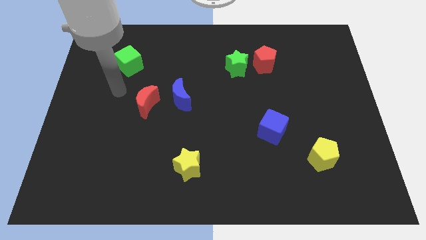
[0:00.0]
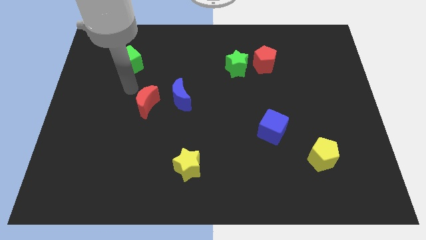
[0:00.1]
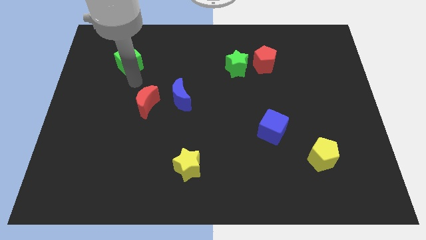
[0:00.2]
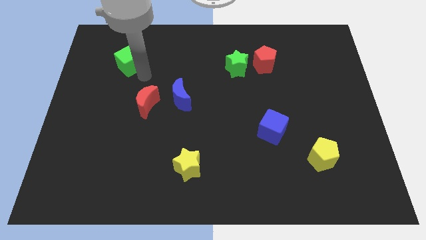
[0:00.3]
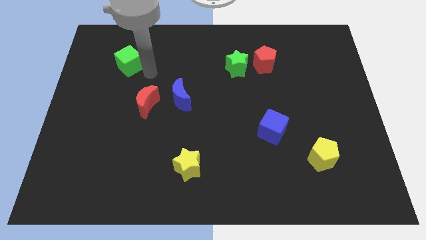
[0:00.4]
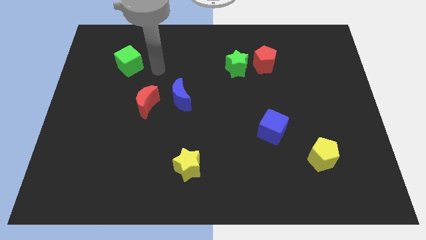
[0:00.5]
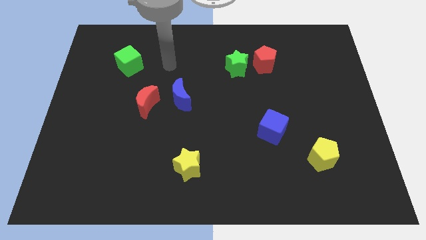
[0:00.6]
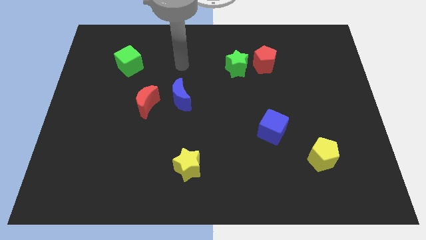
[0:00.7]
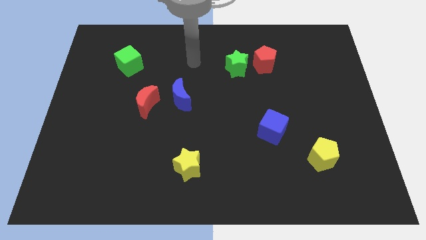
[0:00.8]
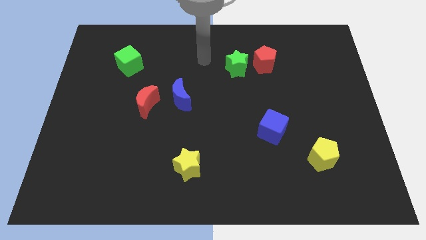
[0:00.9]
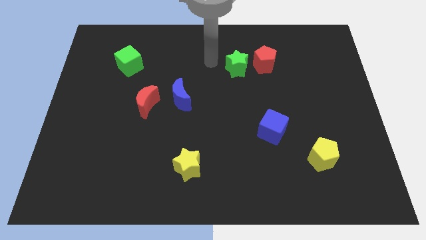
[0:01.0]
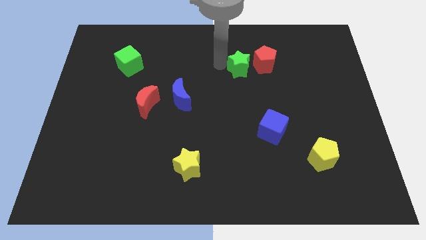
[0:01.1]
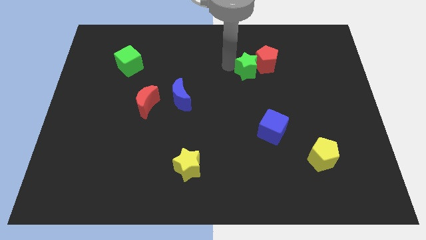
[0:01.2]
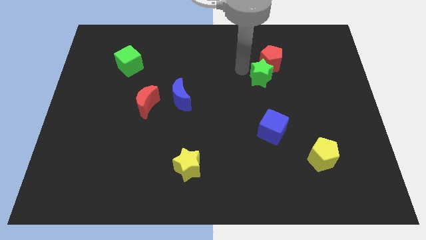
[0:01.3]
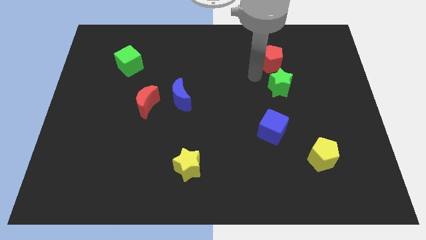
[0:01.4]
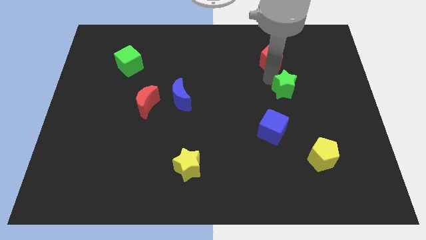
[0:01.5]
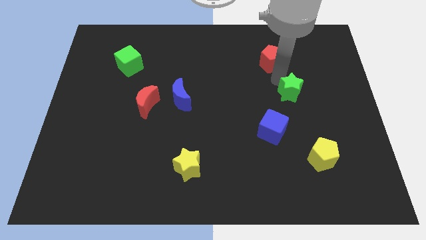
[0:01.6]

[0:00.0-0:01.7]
move the red pentagon away from the green star

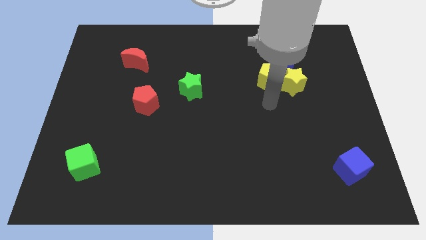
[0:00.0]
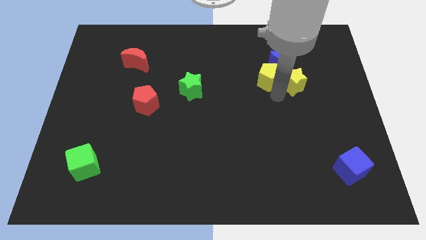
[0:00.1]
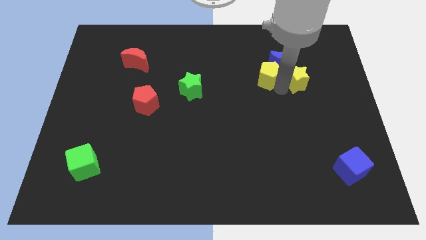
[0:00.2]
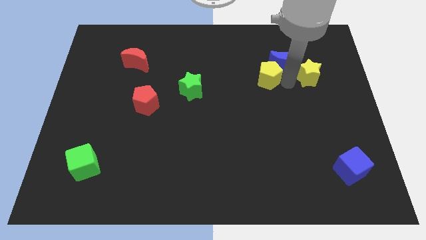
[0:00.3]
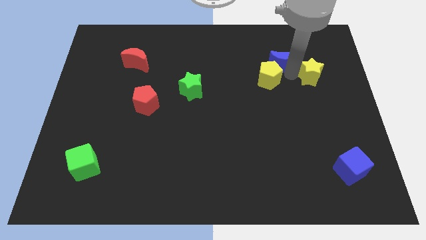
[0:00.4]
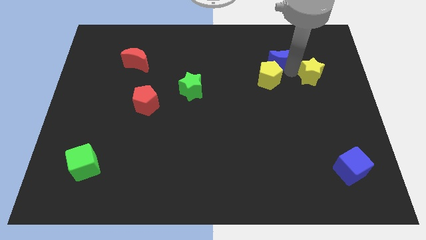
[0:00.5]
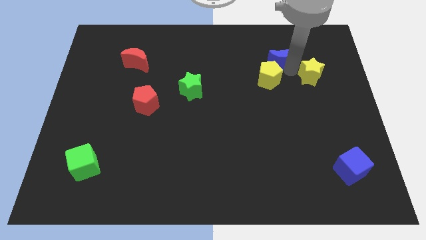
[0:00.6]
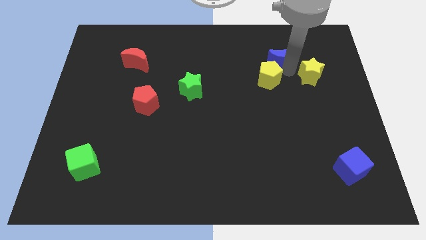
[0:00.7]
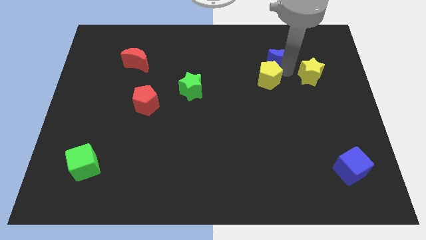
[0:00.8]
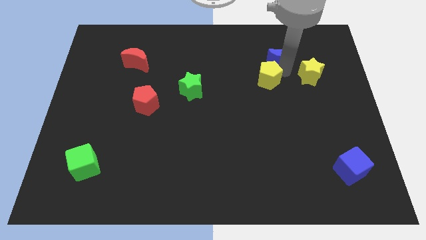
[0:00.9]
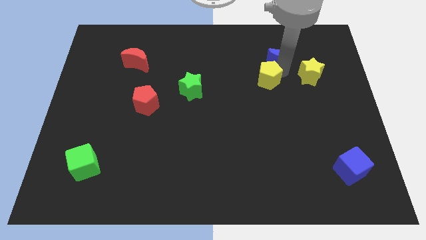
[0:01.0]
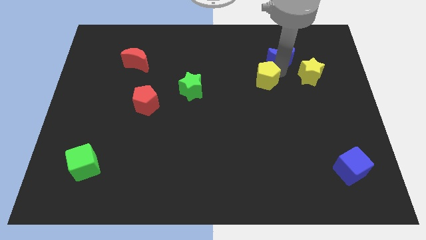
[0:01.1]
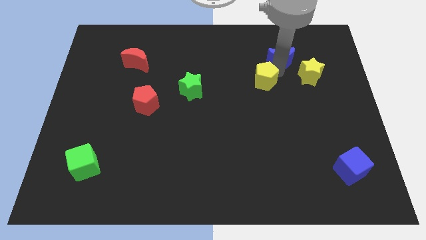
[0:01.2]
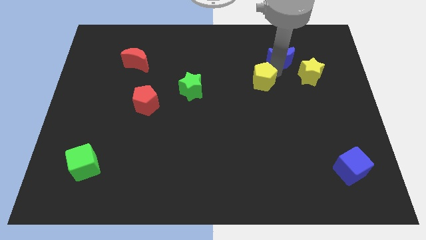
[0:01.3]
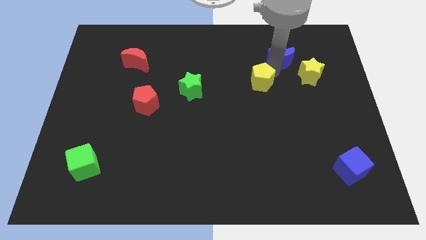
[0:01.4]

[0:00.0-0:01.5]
move the yellow pentagon away from the yellow star and blue moon

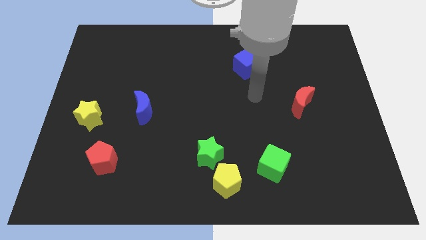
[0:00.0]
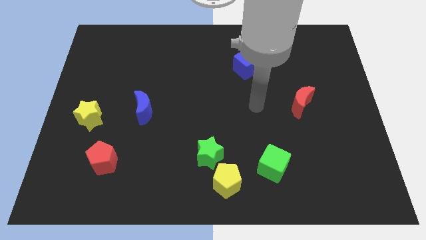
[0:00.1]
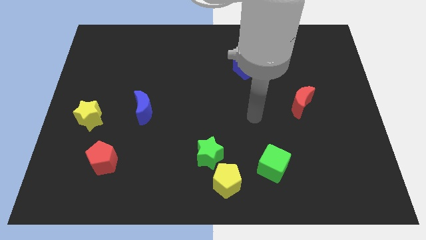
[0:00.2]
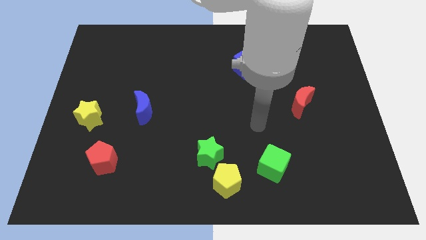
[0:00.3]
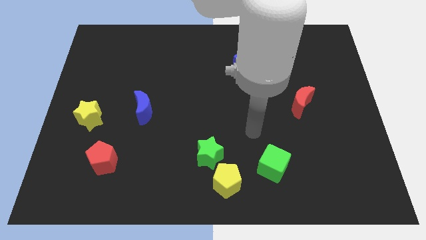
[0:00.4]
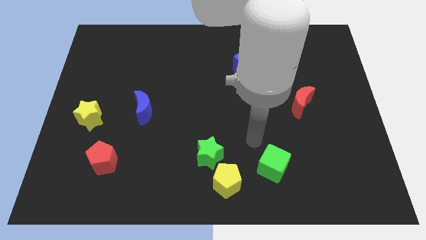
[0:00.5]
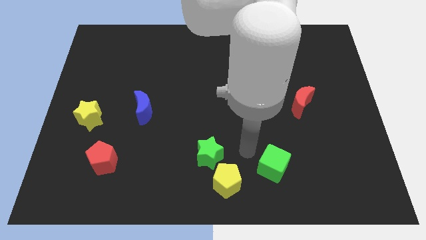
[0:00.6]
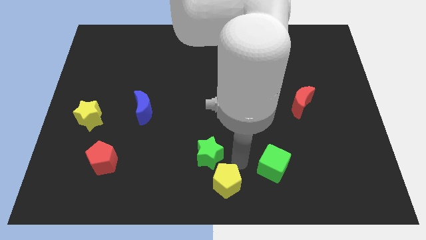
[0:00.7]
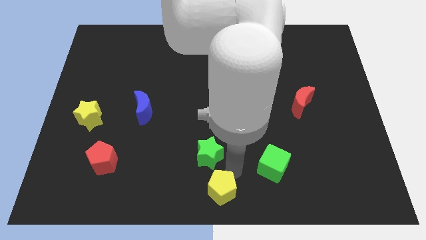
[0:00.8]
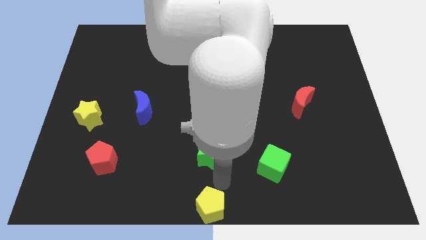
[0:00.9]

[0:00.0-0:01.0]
move the green star away from the yellow pentagon

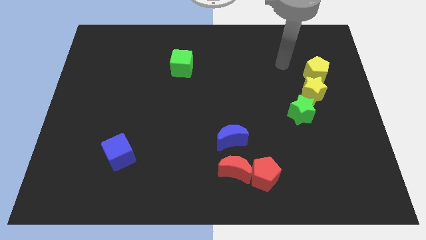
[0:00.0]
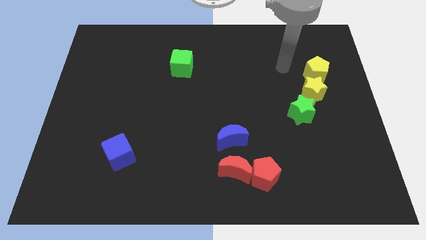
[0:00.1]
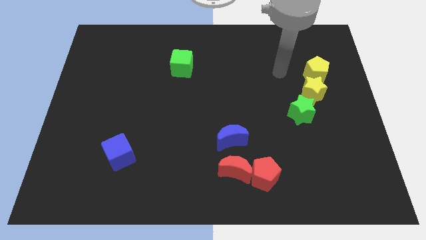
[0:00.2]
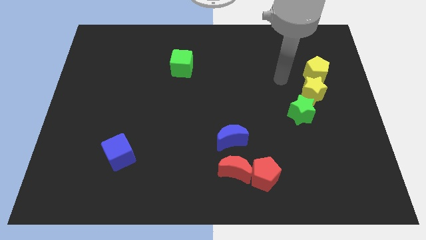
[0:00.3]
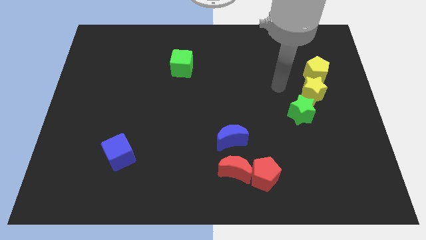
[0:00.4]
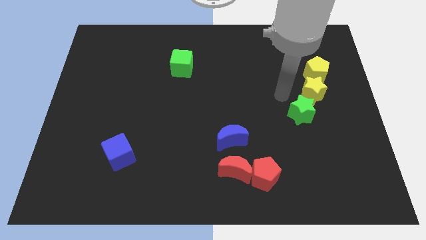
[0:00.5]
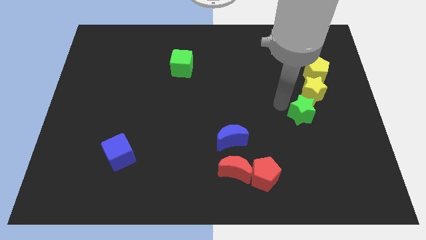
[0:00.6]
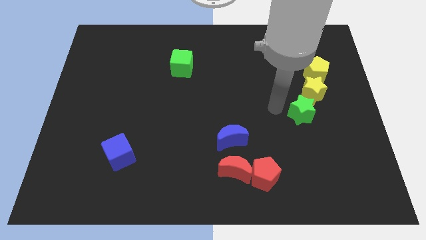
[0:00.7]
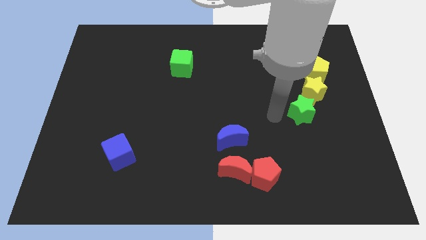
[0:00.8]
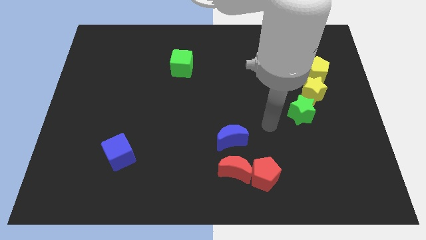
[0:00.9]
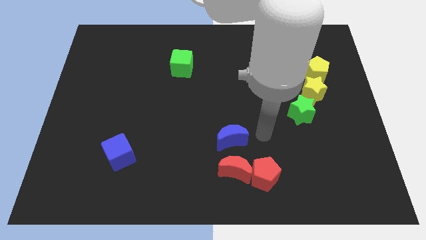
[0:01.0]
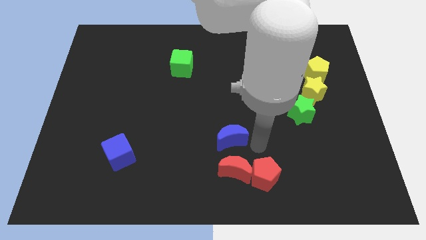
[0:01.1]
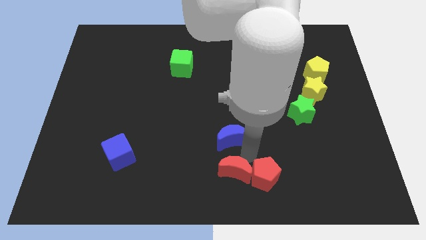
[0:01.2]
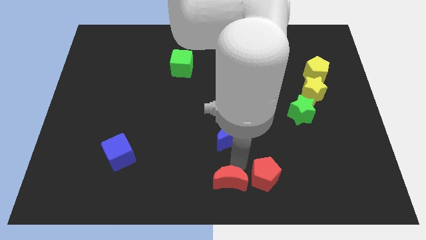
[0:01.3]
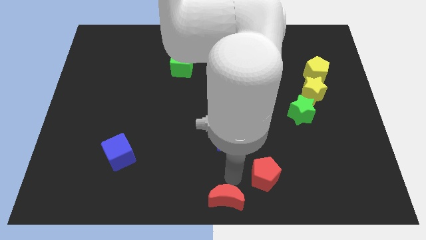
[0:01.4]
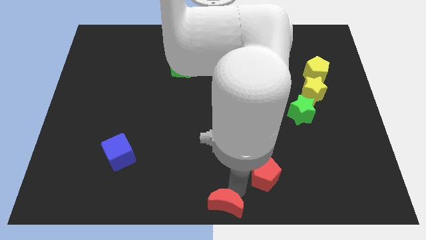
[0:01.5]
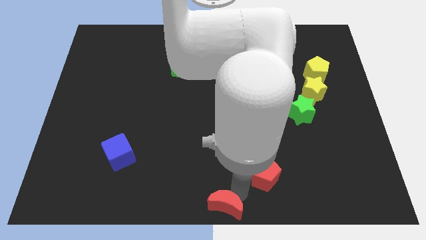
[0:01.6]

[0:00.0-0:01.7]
move the red pentagon away from the red moon

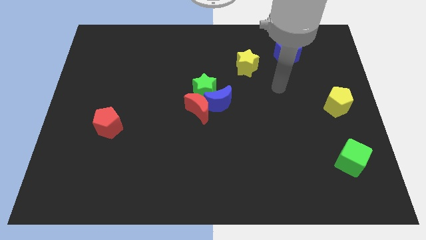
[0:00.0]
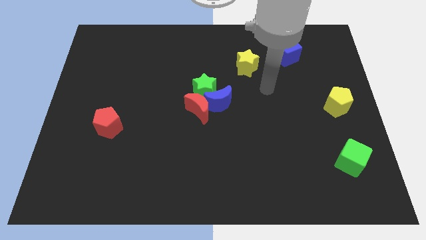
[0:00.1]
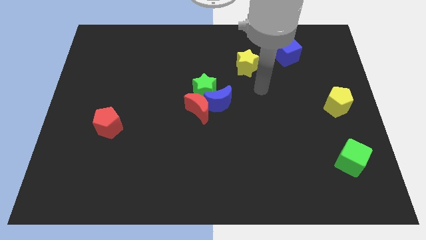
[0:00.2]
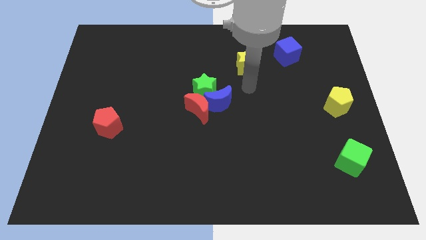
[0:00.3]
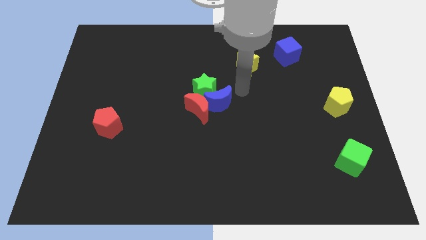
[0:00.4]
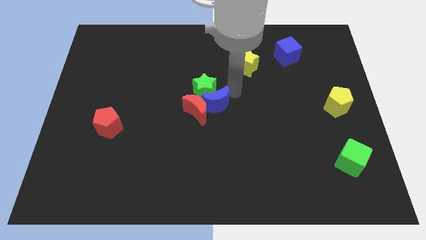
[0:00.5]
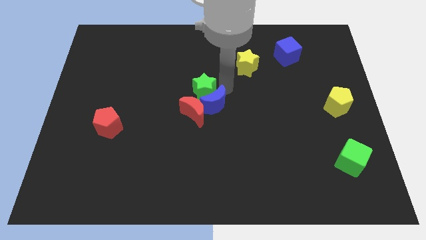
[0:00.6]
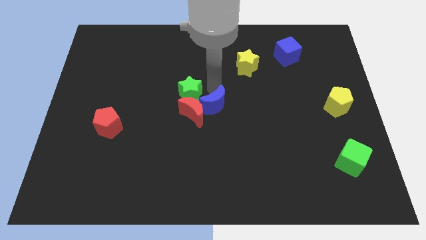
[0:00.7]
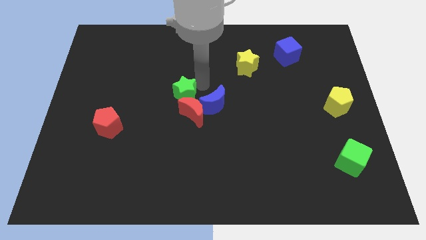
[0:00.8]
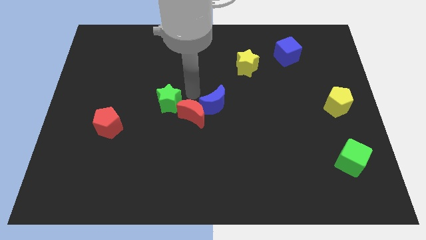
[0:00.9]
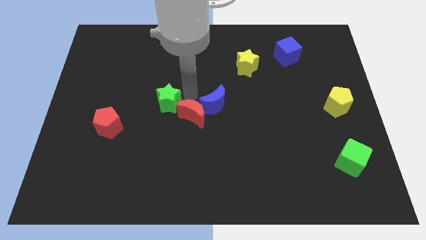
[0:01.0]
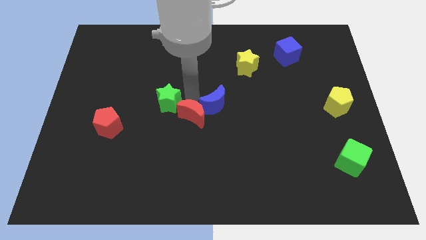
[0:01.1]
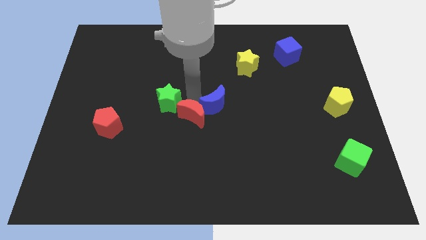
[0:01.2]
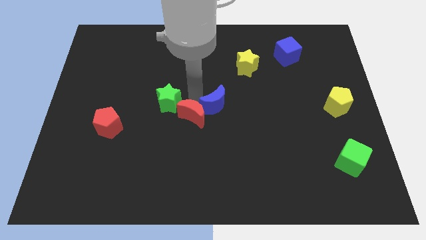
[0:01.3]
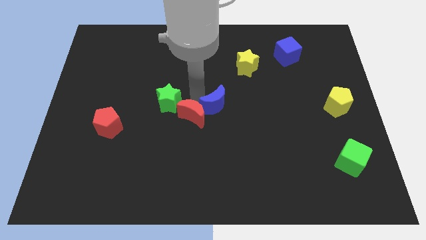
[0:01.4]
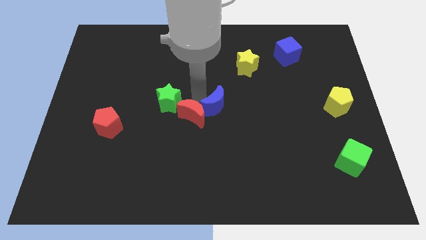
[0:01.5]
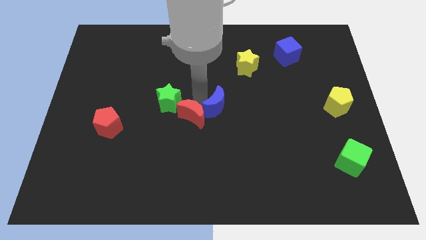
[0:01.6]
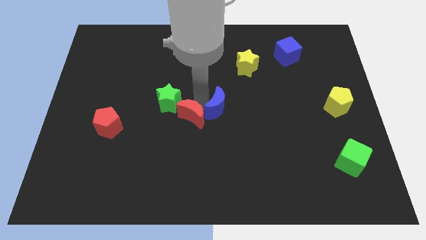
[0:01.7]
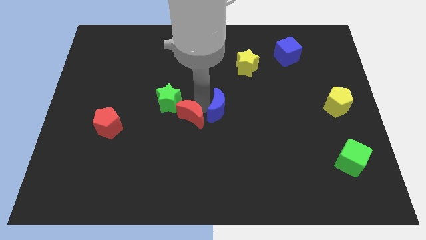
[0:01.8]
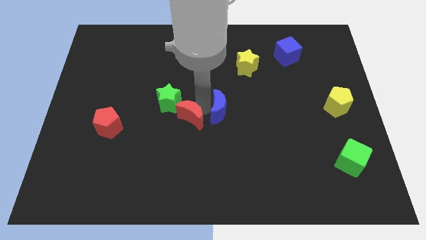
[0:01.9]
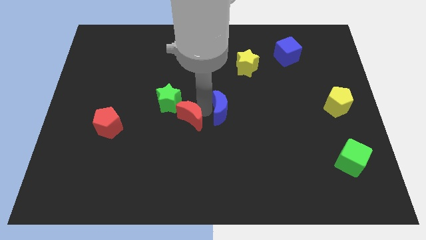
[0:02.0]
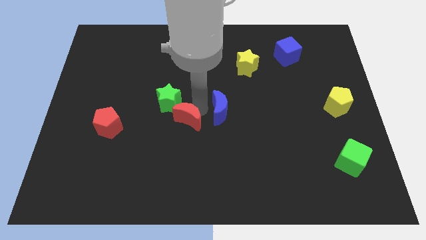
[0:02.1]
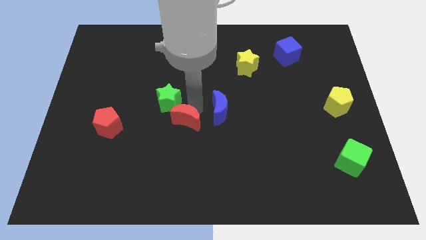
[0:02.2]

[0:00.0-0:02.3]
pull the blue moon apart from the red moon and green star

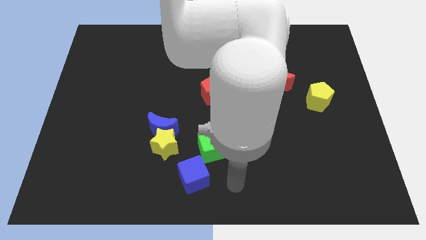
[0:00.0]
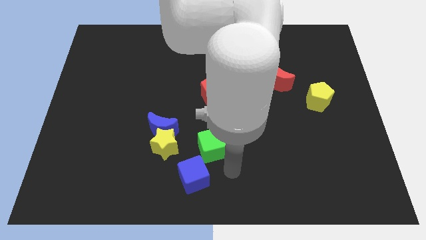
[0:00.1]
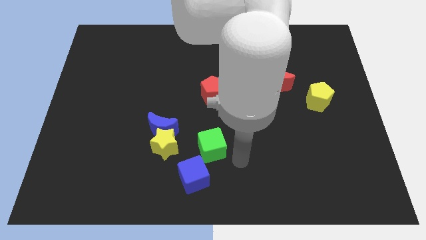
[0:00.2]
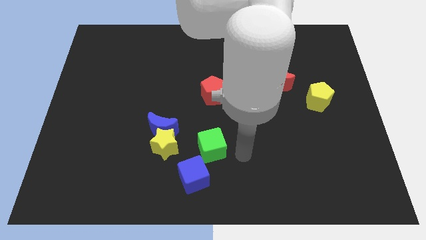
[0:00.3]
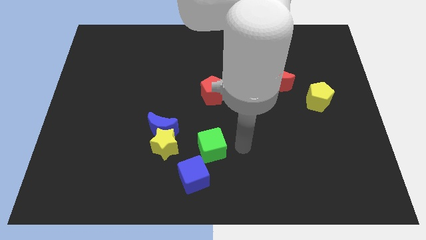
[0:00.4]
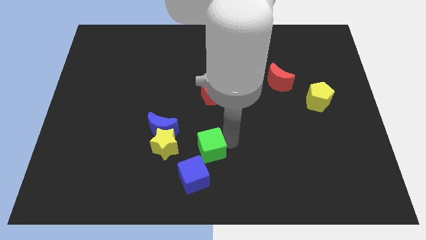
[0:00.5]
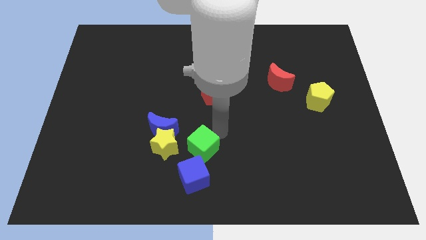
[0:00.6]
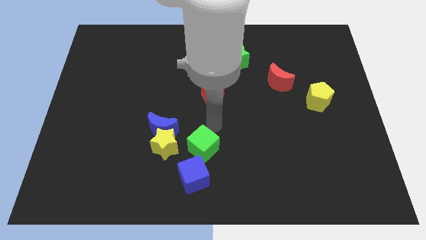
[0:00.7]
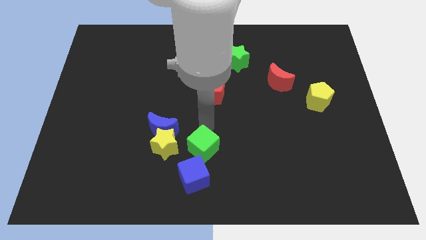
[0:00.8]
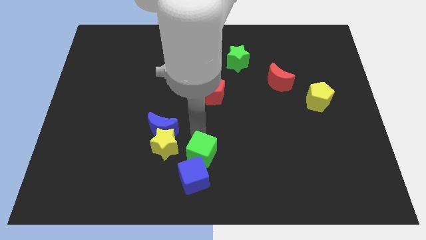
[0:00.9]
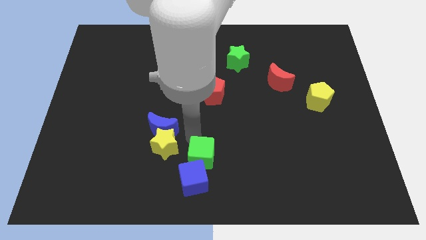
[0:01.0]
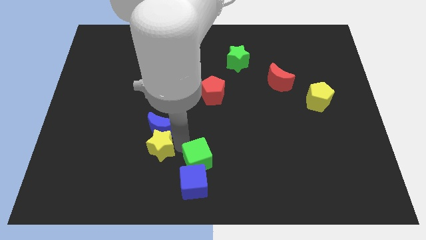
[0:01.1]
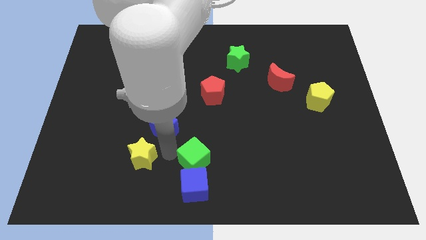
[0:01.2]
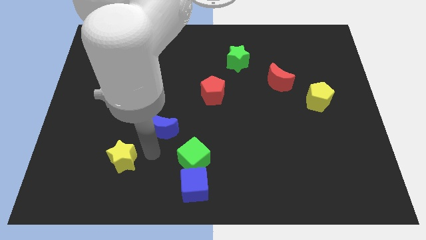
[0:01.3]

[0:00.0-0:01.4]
separate the blue moon from the yellow star
